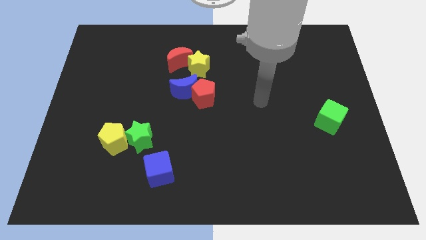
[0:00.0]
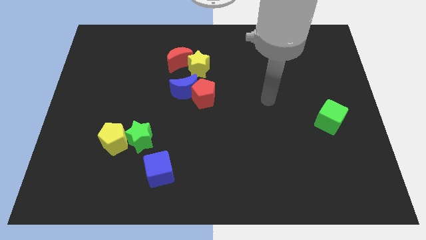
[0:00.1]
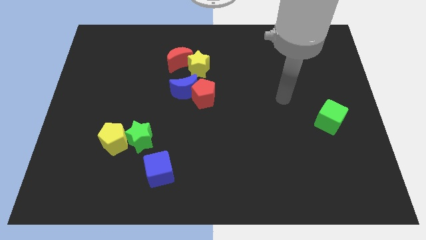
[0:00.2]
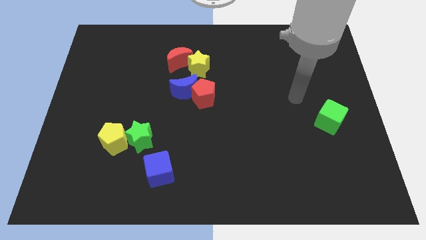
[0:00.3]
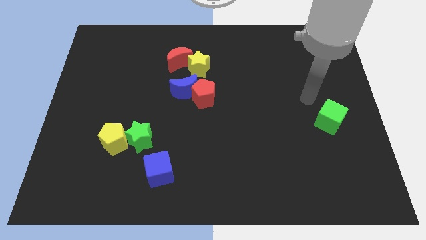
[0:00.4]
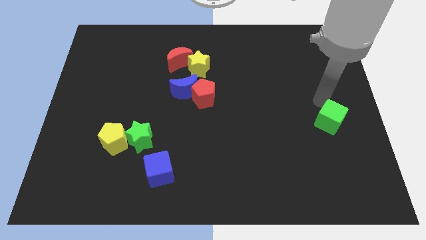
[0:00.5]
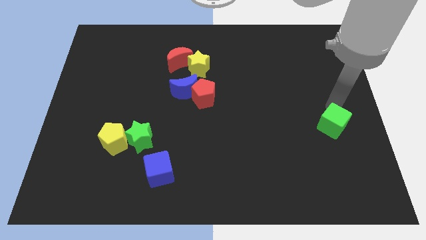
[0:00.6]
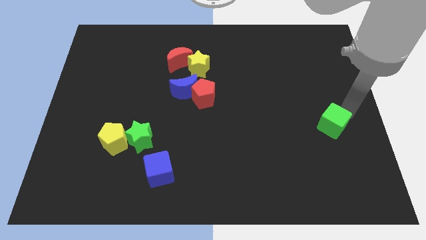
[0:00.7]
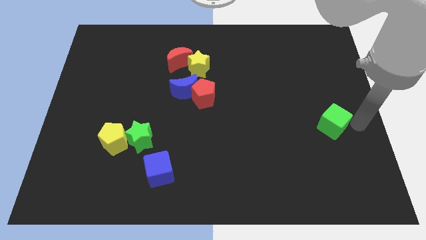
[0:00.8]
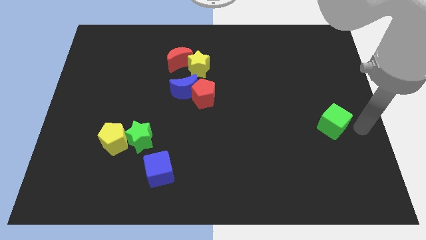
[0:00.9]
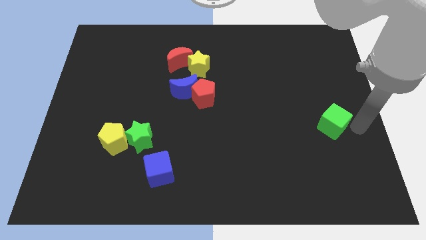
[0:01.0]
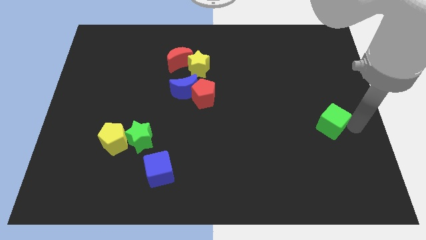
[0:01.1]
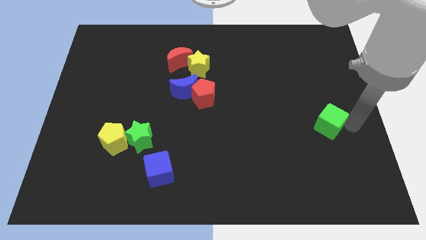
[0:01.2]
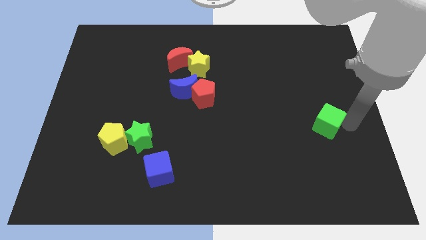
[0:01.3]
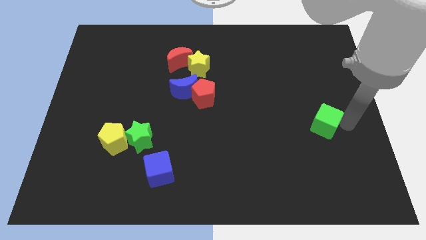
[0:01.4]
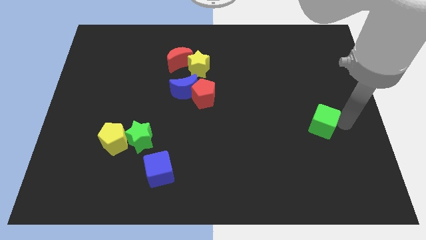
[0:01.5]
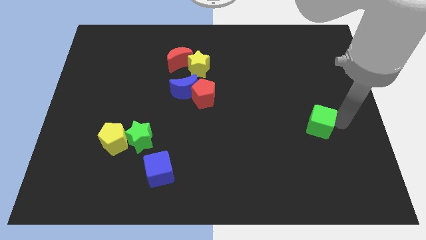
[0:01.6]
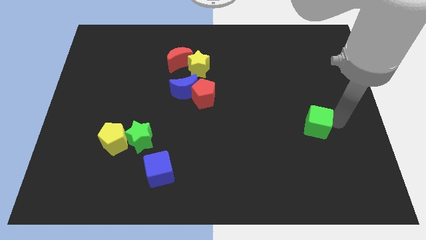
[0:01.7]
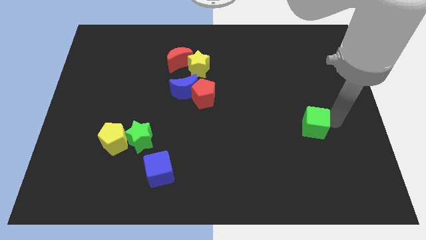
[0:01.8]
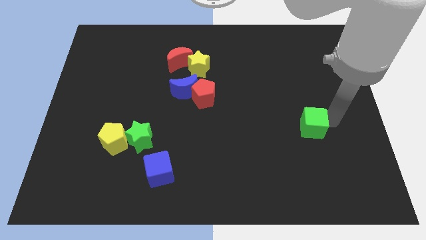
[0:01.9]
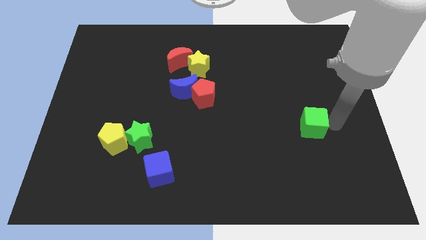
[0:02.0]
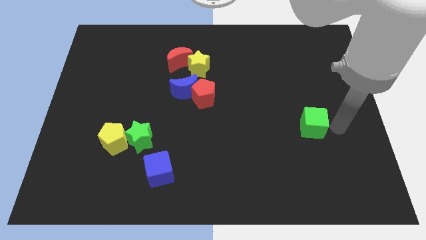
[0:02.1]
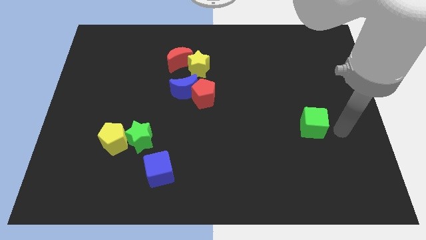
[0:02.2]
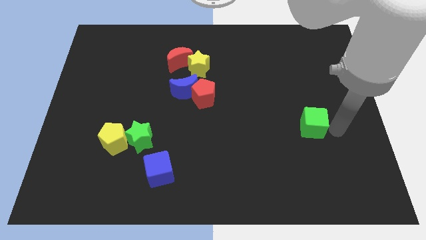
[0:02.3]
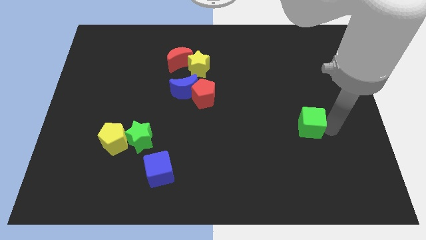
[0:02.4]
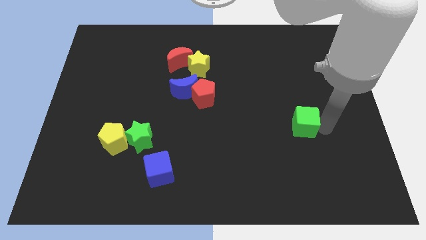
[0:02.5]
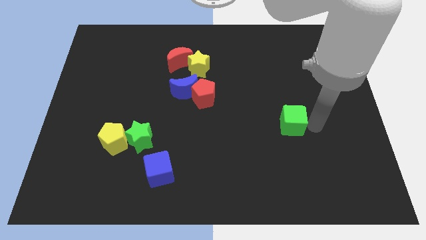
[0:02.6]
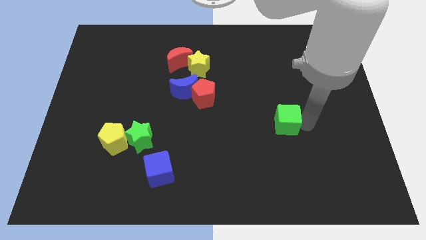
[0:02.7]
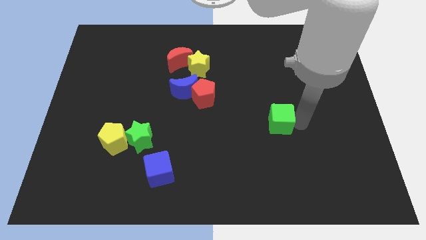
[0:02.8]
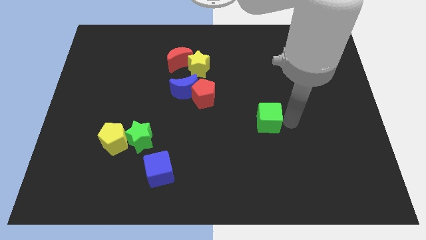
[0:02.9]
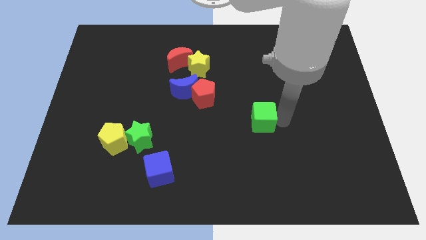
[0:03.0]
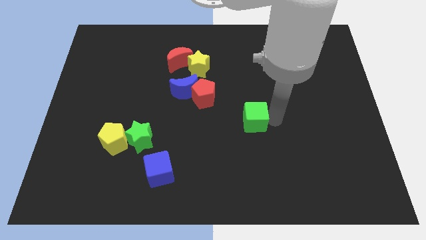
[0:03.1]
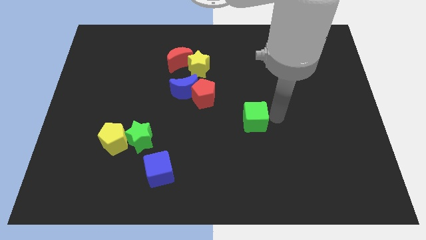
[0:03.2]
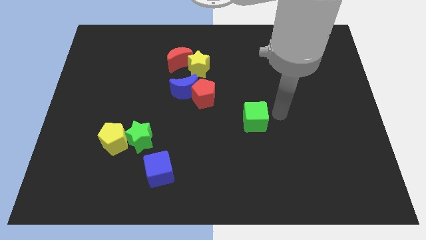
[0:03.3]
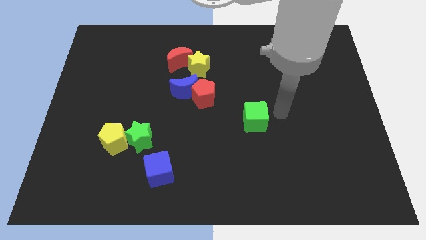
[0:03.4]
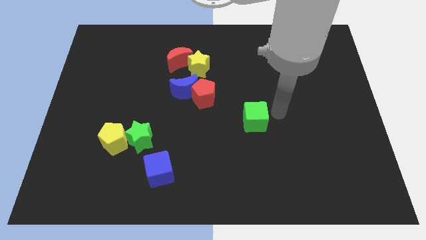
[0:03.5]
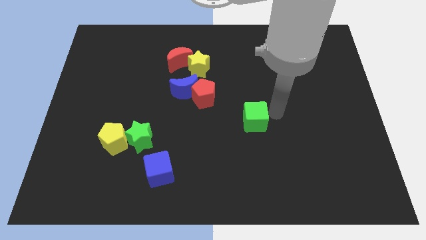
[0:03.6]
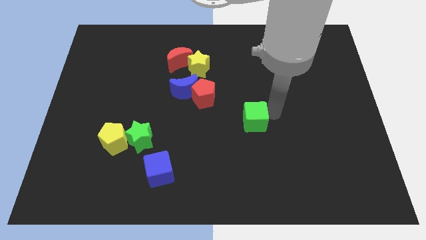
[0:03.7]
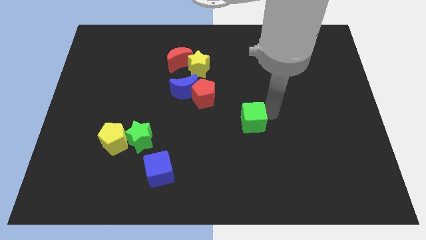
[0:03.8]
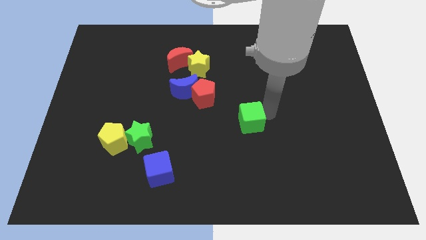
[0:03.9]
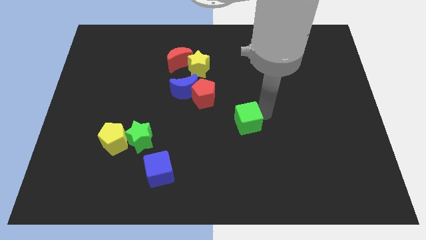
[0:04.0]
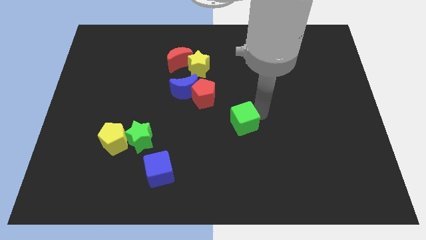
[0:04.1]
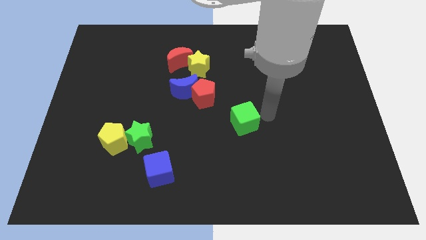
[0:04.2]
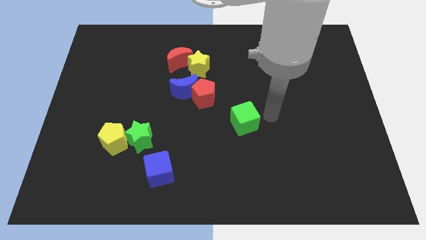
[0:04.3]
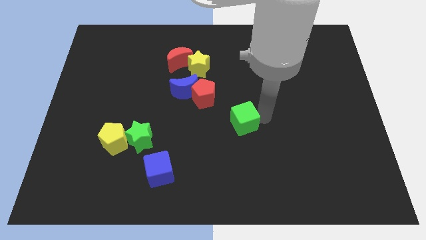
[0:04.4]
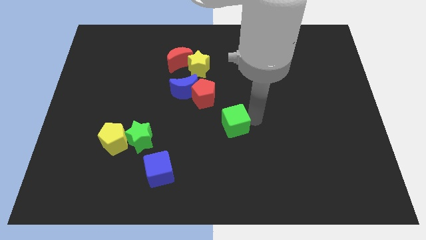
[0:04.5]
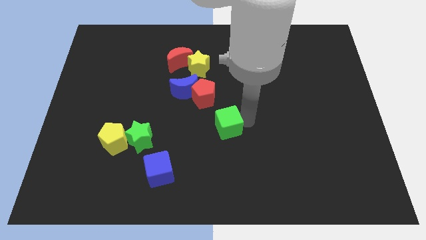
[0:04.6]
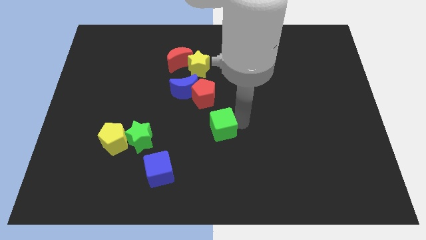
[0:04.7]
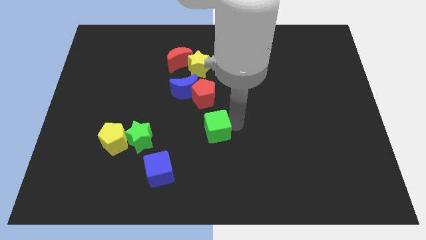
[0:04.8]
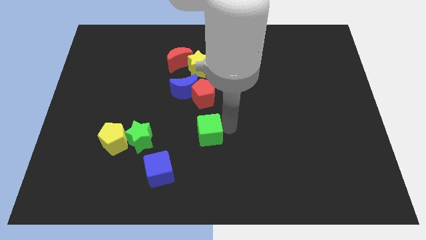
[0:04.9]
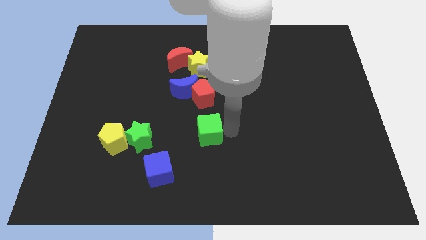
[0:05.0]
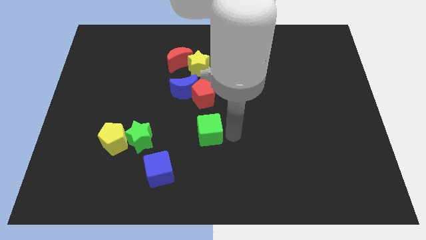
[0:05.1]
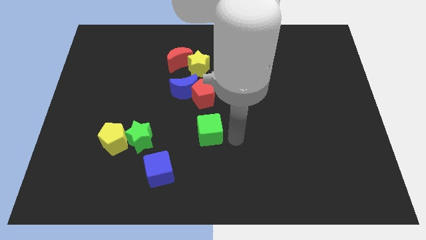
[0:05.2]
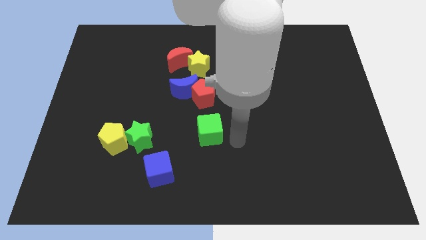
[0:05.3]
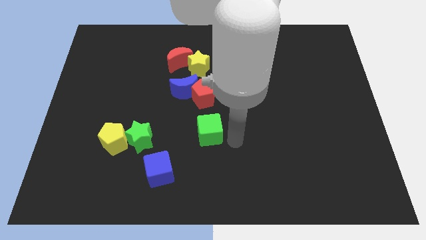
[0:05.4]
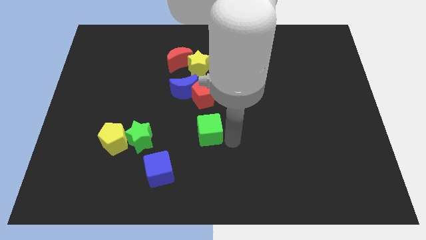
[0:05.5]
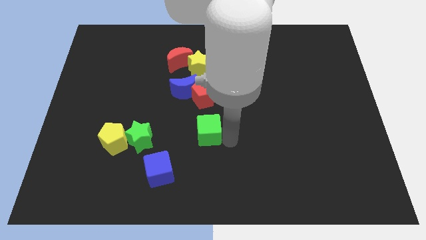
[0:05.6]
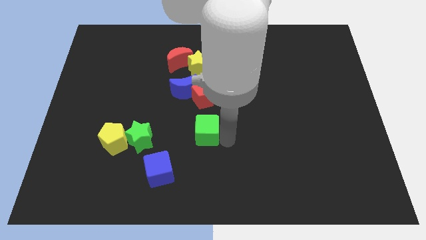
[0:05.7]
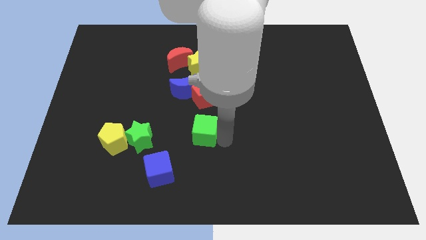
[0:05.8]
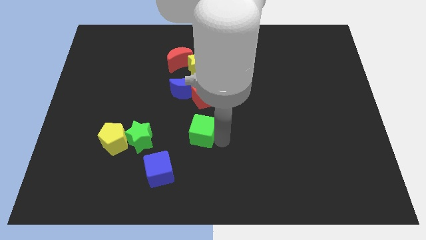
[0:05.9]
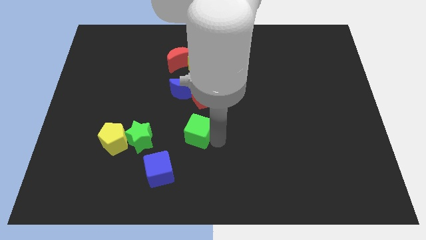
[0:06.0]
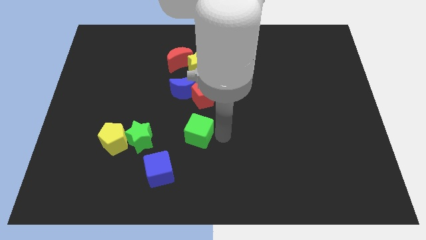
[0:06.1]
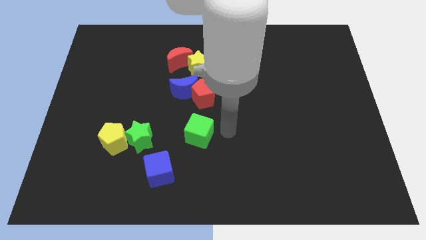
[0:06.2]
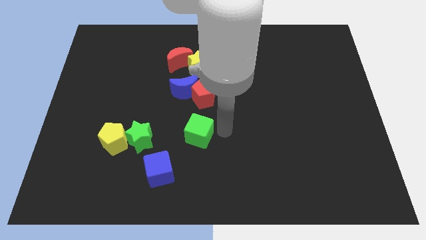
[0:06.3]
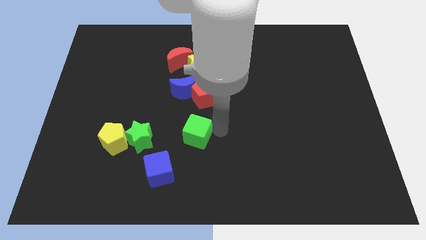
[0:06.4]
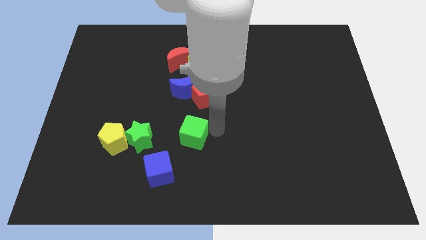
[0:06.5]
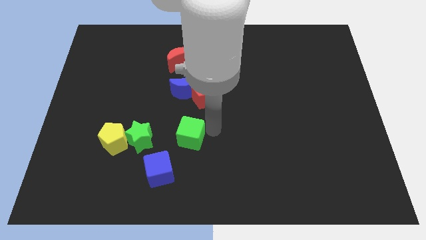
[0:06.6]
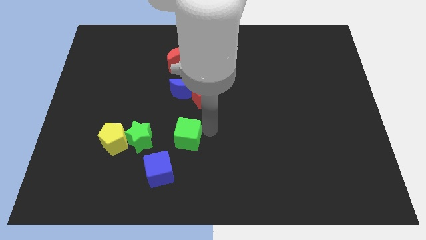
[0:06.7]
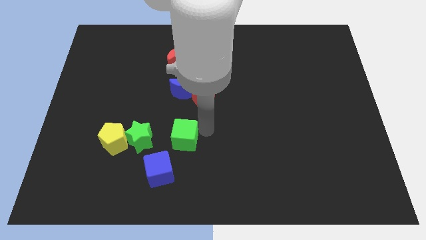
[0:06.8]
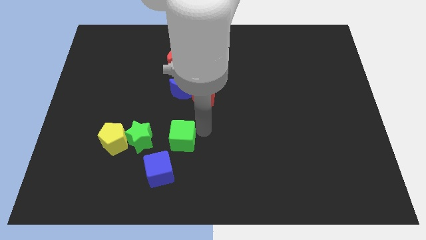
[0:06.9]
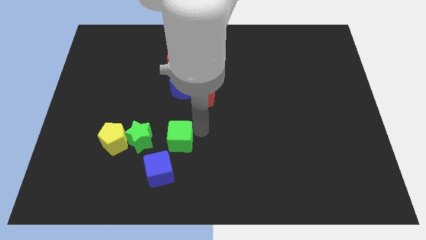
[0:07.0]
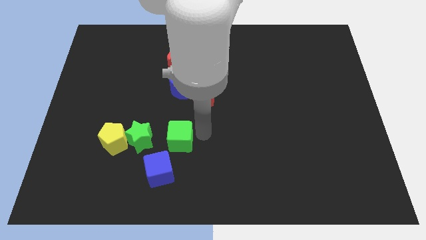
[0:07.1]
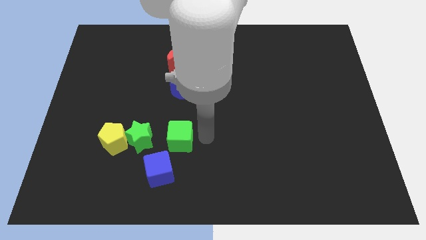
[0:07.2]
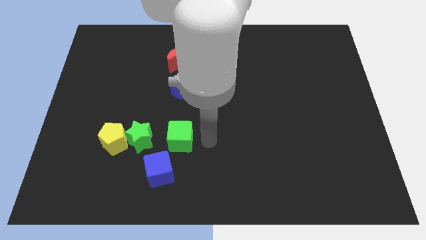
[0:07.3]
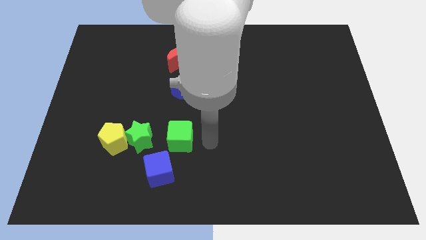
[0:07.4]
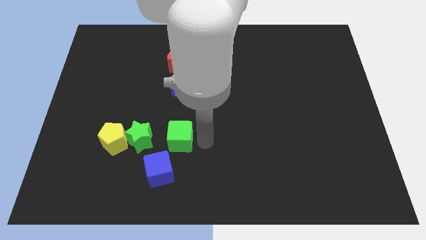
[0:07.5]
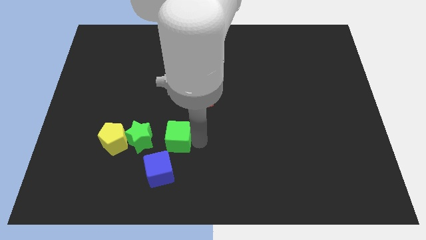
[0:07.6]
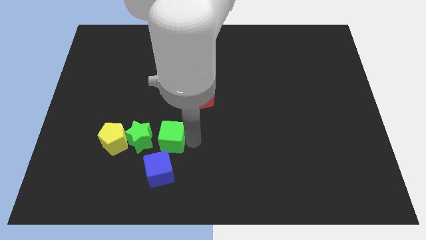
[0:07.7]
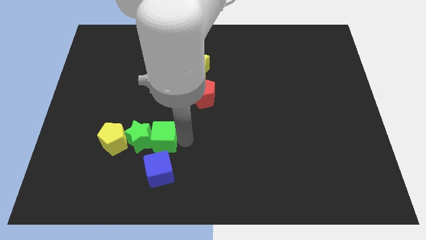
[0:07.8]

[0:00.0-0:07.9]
slide the green cube towards the green star
